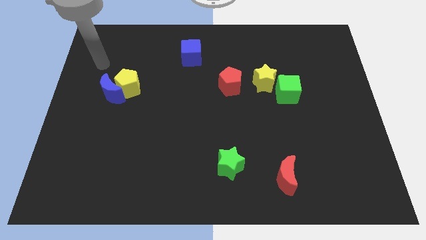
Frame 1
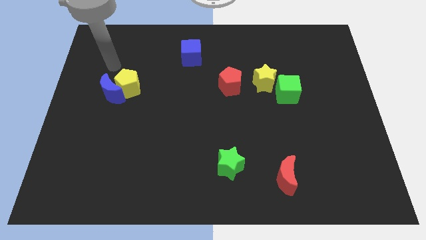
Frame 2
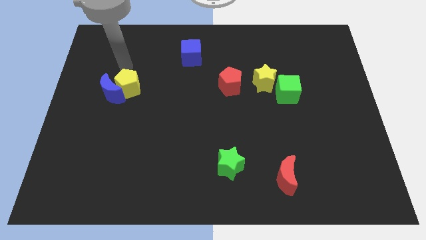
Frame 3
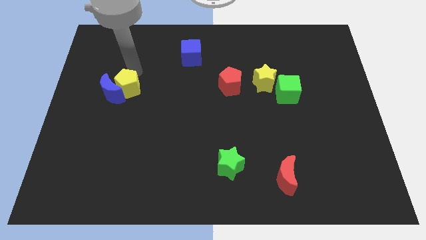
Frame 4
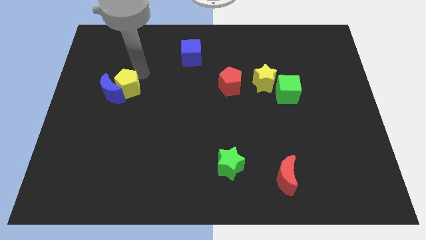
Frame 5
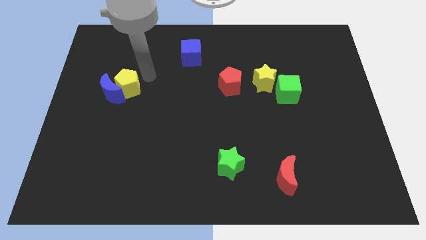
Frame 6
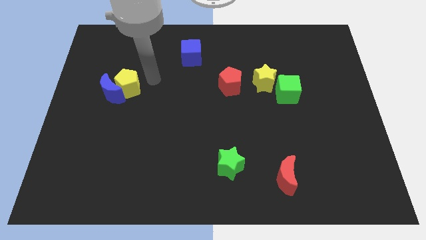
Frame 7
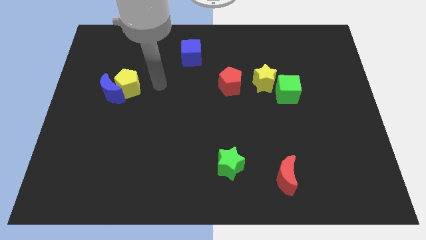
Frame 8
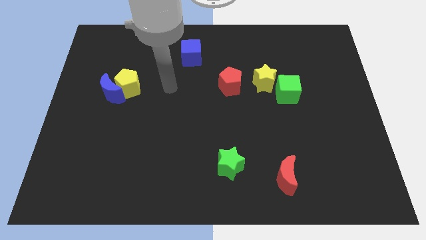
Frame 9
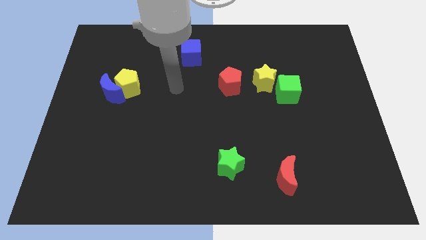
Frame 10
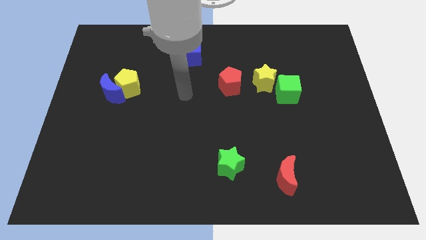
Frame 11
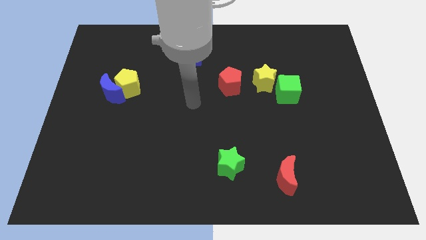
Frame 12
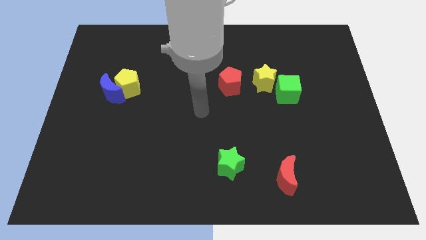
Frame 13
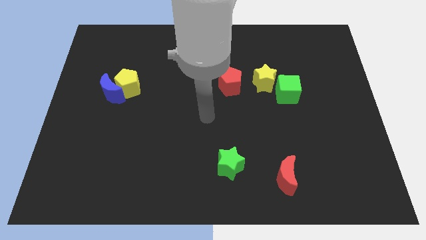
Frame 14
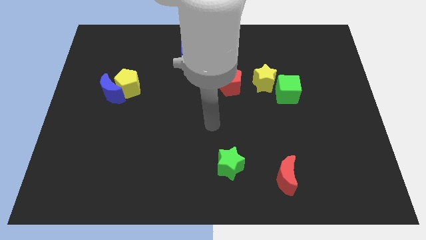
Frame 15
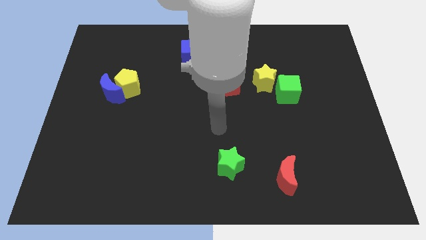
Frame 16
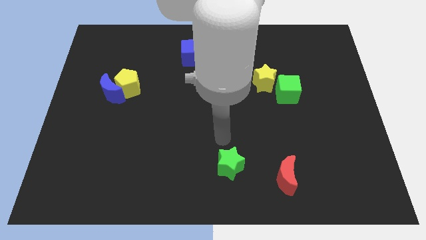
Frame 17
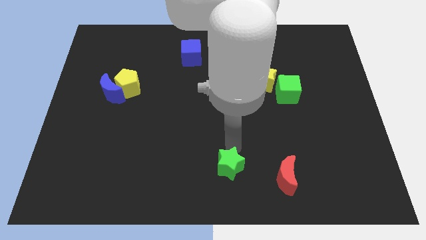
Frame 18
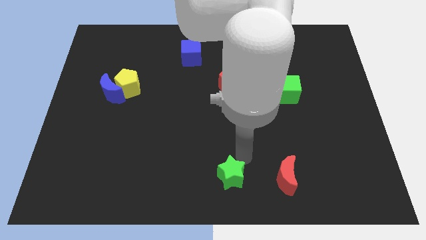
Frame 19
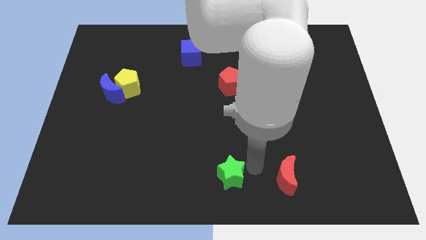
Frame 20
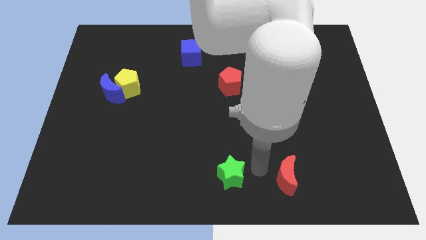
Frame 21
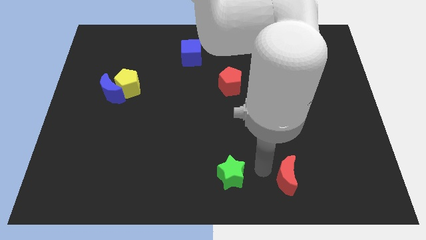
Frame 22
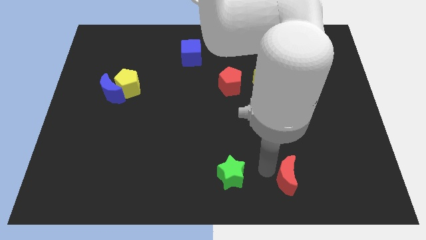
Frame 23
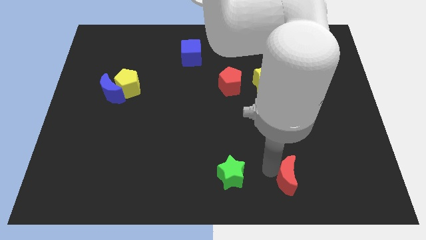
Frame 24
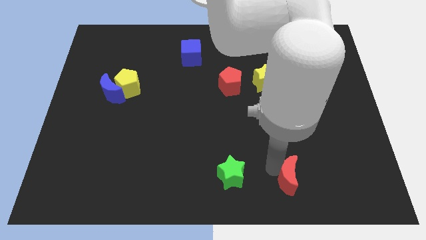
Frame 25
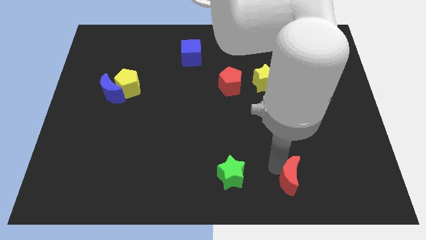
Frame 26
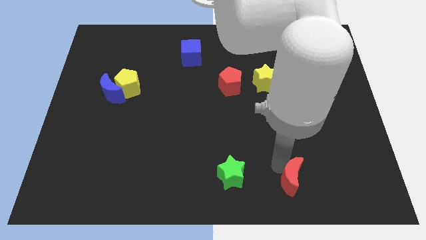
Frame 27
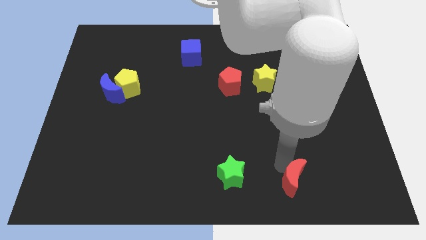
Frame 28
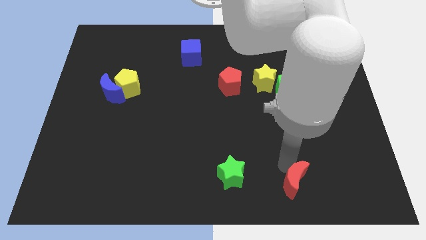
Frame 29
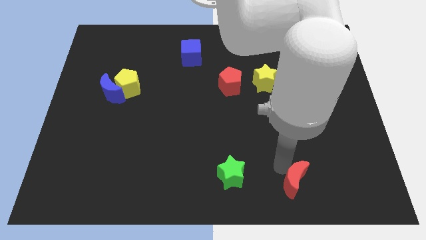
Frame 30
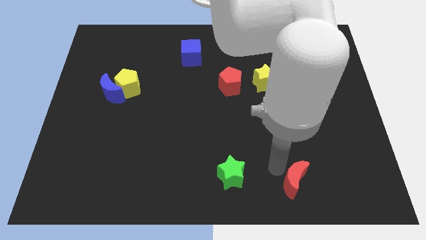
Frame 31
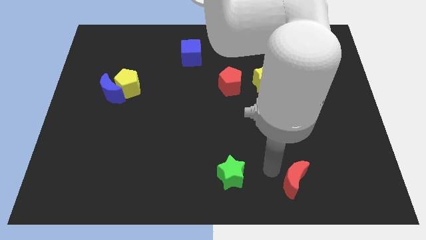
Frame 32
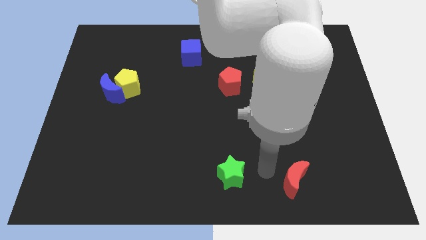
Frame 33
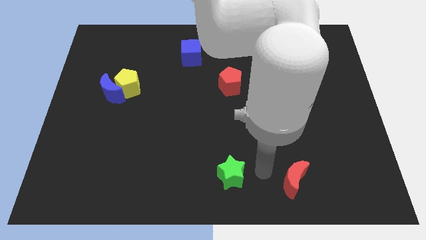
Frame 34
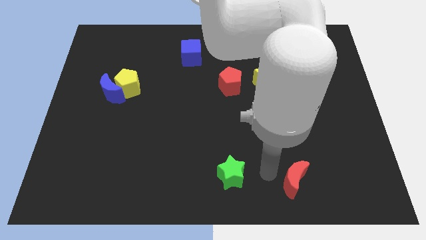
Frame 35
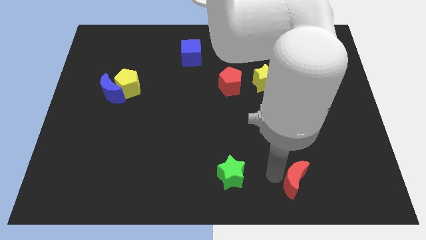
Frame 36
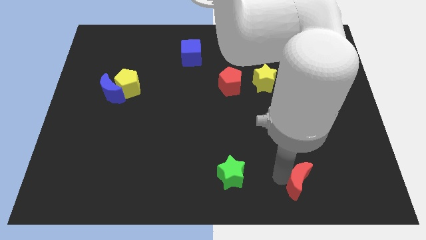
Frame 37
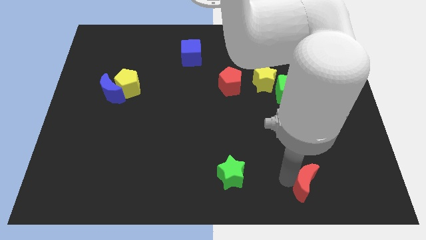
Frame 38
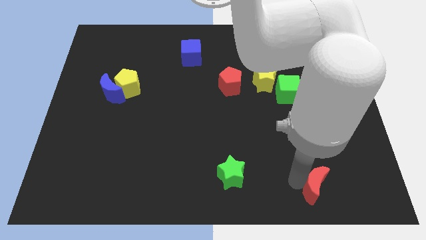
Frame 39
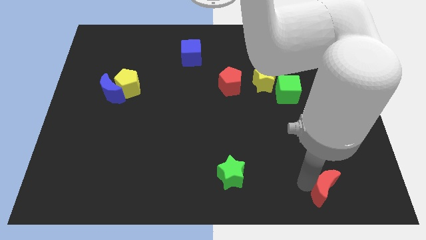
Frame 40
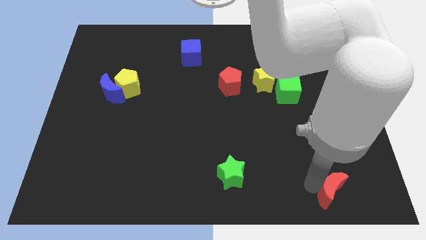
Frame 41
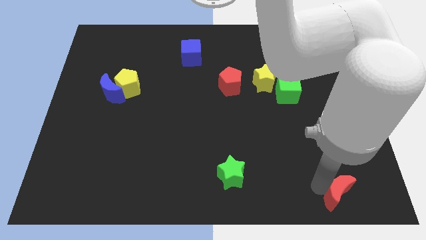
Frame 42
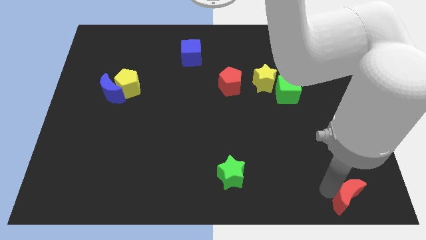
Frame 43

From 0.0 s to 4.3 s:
slide the red moon to the lower right corner

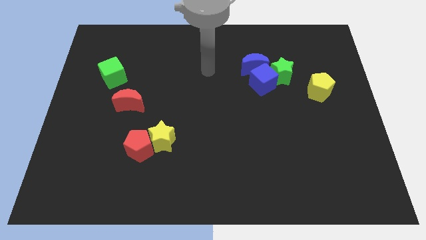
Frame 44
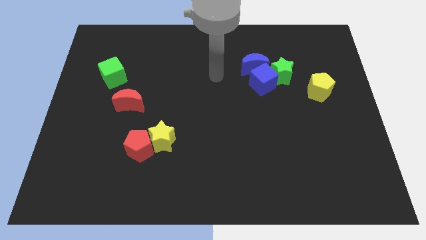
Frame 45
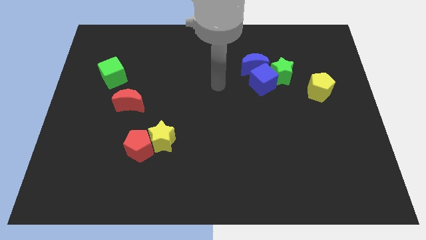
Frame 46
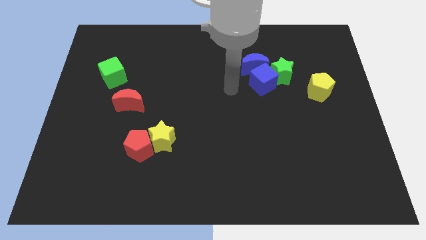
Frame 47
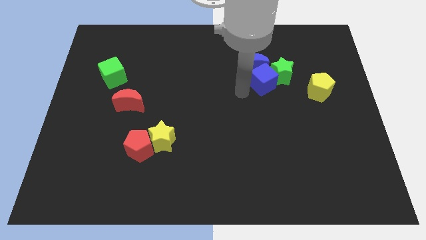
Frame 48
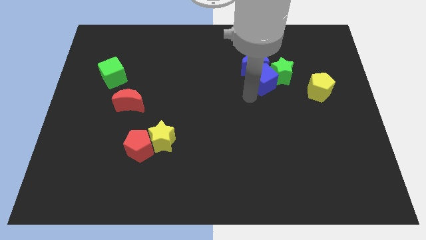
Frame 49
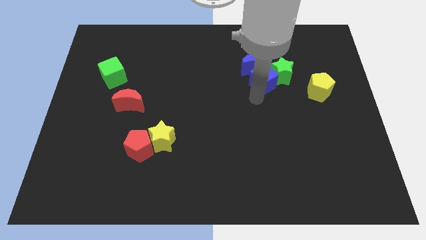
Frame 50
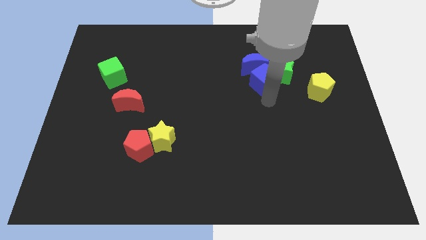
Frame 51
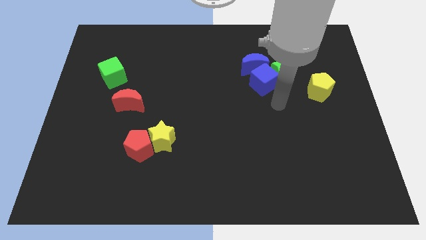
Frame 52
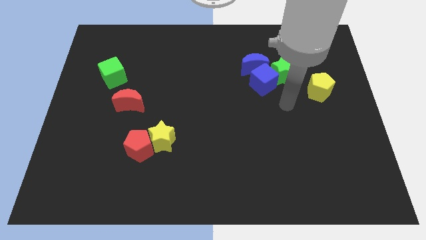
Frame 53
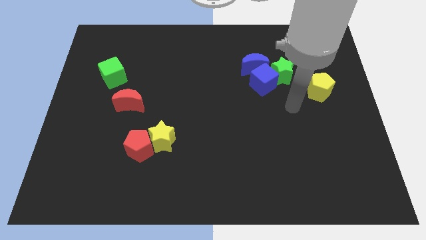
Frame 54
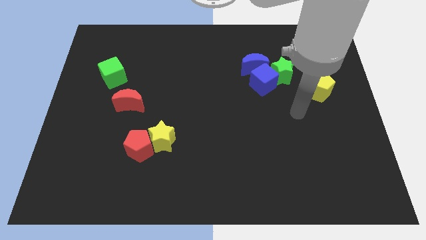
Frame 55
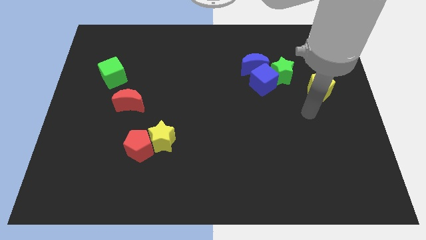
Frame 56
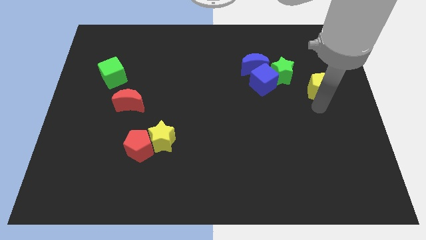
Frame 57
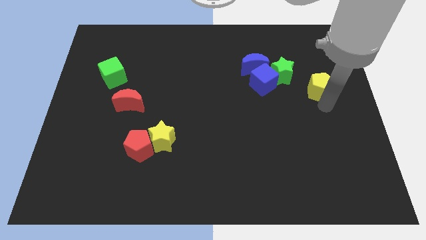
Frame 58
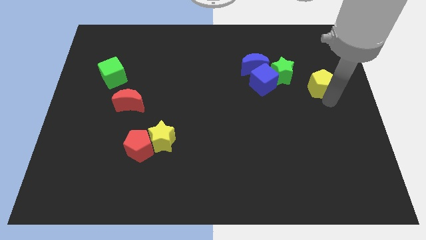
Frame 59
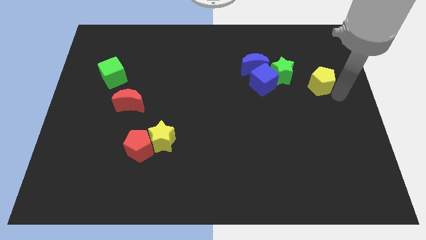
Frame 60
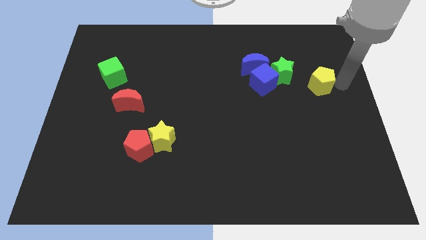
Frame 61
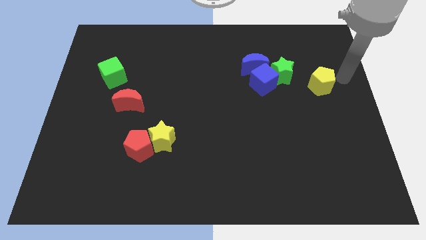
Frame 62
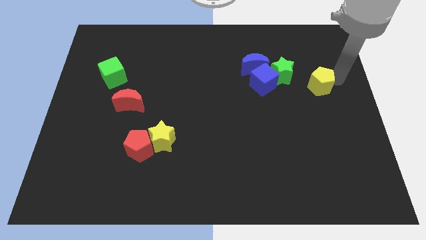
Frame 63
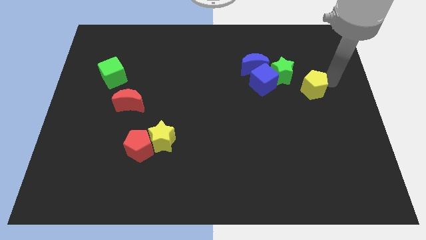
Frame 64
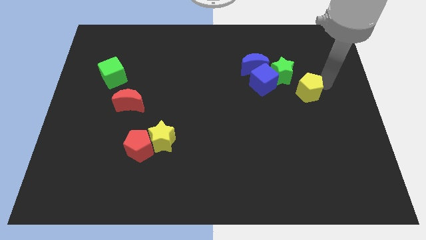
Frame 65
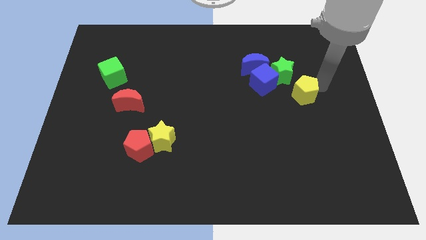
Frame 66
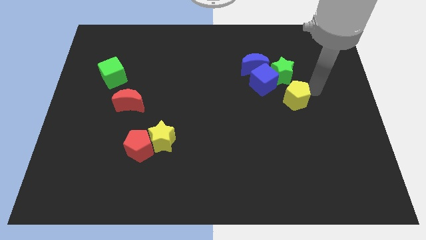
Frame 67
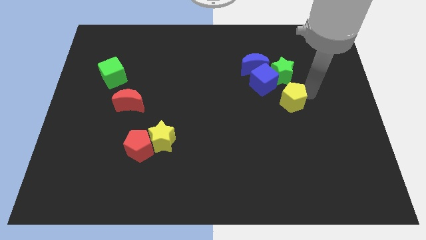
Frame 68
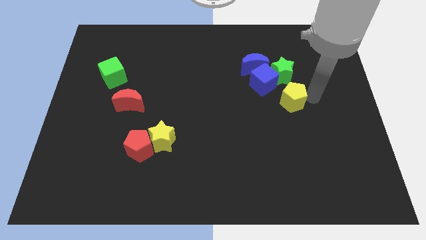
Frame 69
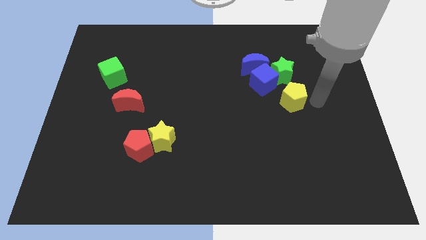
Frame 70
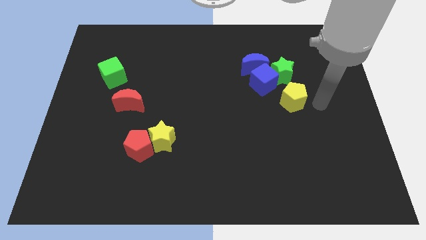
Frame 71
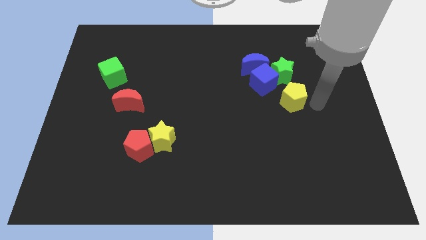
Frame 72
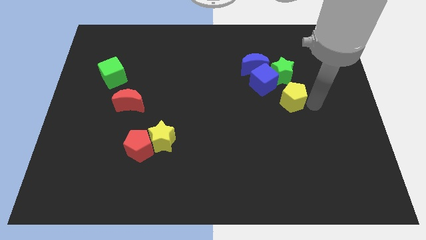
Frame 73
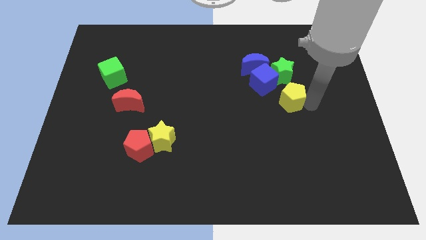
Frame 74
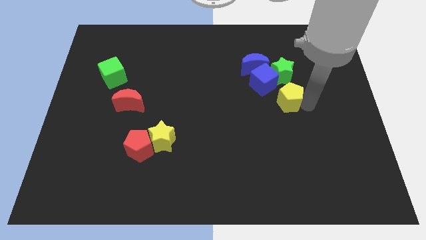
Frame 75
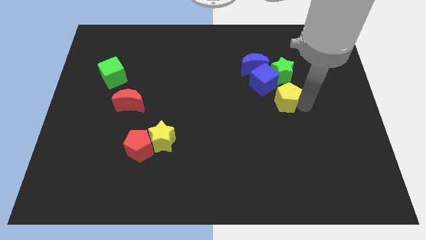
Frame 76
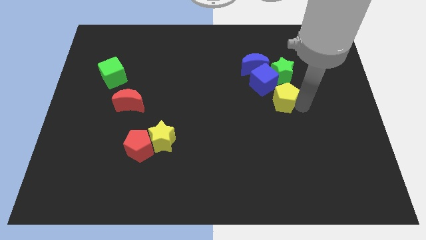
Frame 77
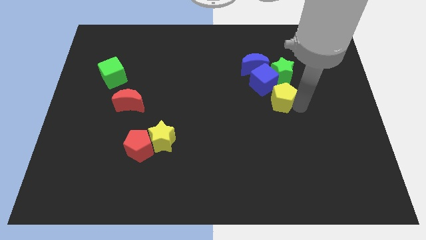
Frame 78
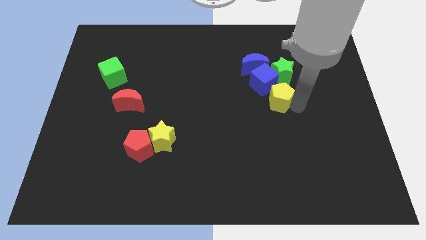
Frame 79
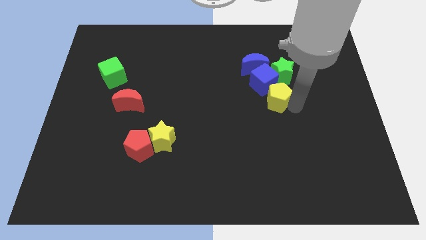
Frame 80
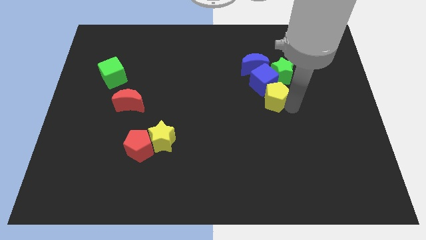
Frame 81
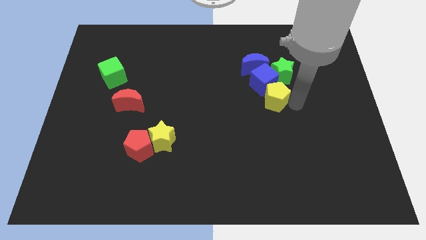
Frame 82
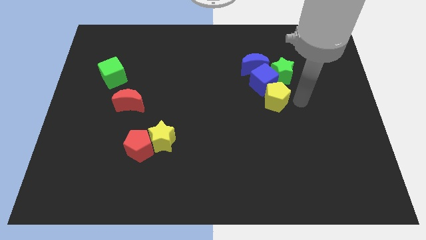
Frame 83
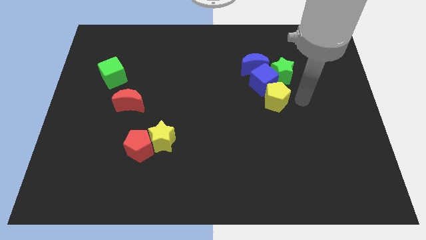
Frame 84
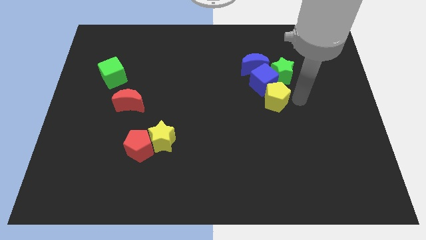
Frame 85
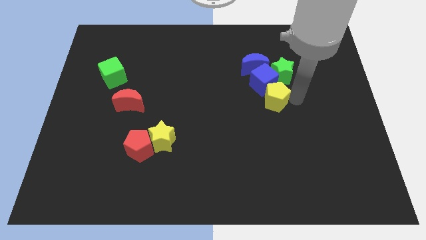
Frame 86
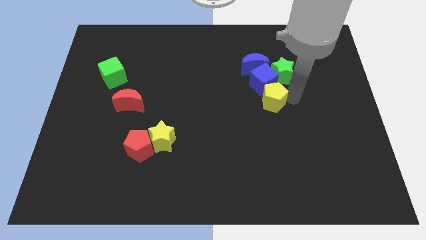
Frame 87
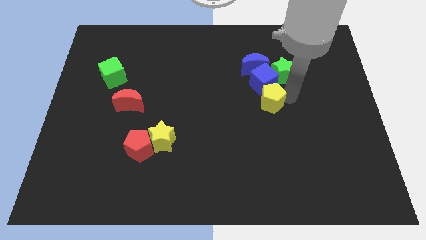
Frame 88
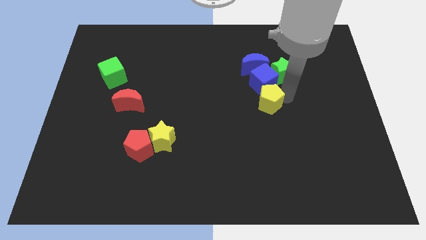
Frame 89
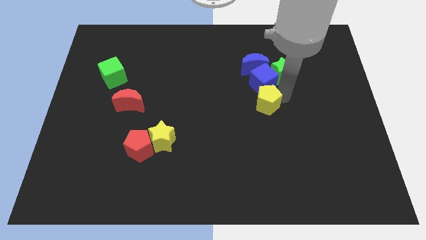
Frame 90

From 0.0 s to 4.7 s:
slide the yellow pentagon to the center of the board
